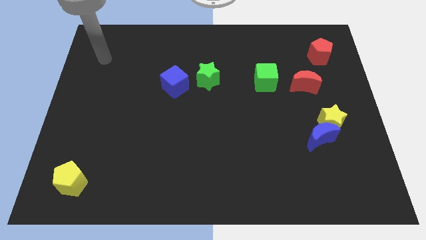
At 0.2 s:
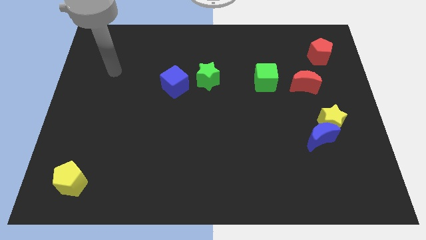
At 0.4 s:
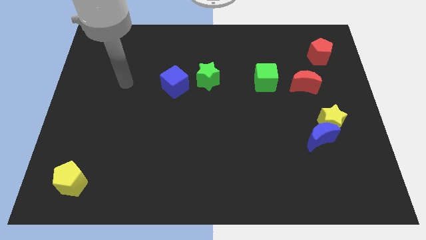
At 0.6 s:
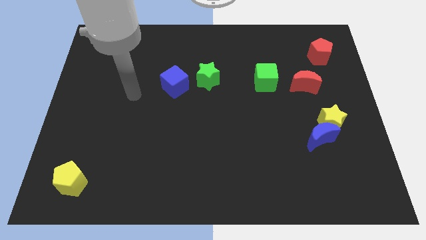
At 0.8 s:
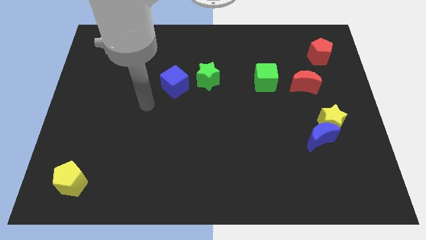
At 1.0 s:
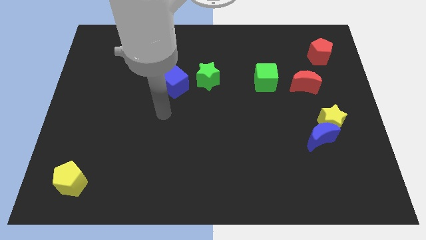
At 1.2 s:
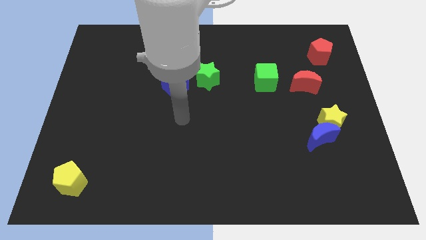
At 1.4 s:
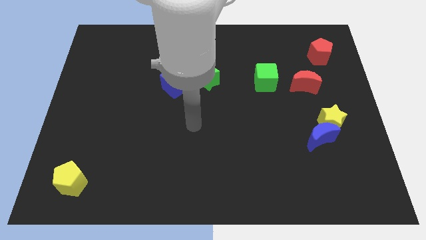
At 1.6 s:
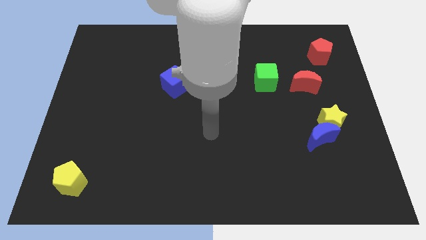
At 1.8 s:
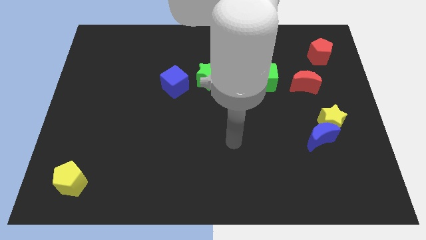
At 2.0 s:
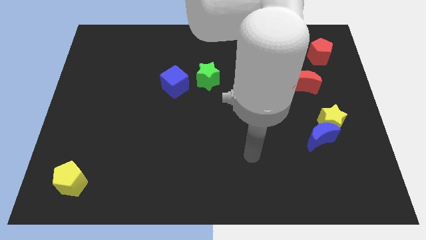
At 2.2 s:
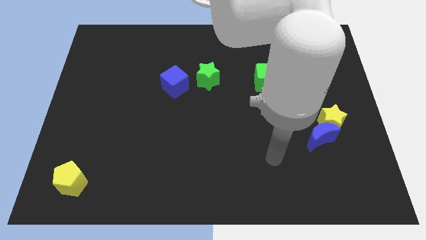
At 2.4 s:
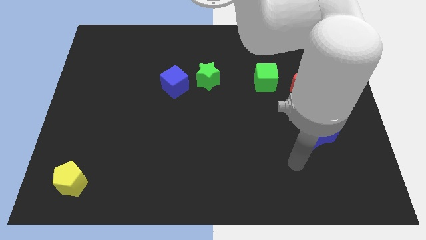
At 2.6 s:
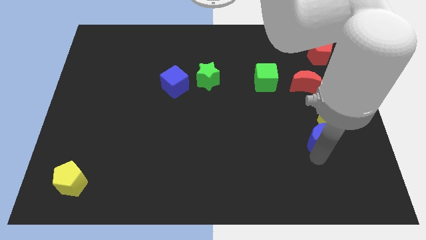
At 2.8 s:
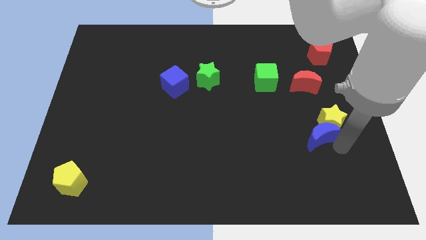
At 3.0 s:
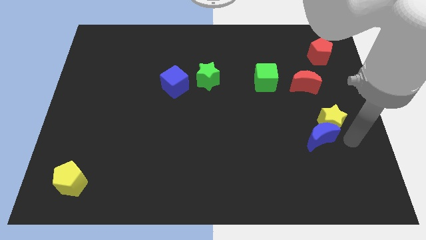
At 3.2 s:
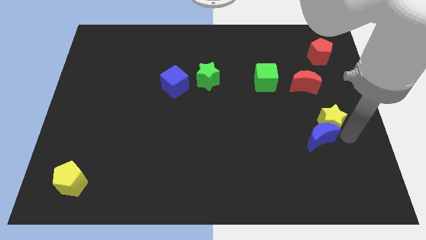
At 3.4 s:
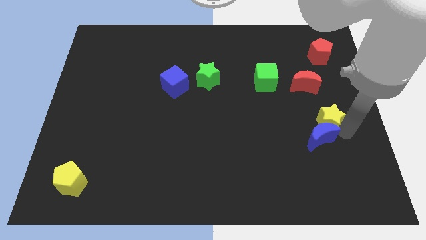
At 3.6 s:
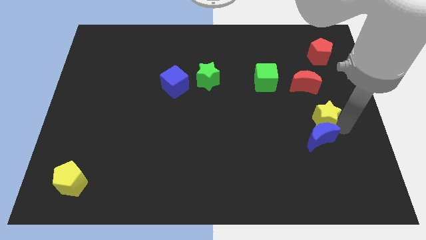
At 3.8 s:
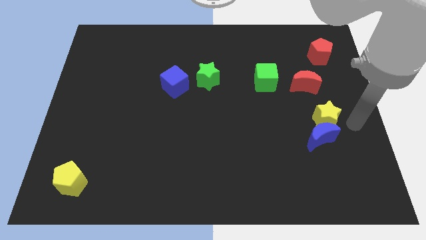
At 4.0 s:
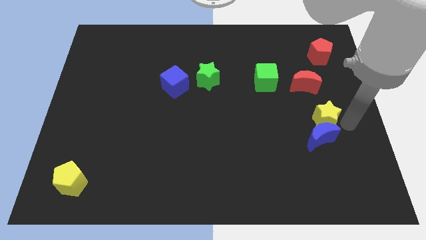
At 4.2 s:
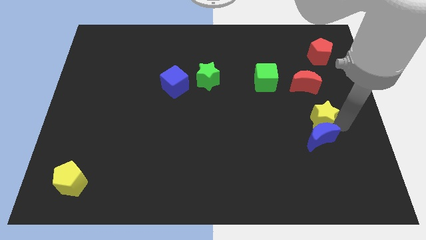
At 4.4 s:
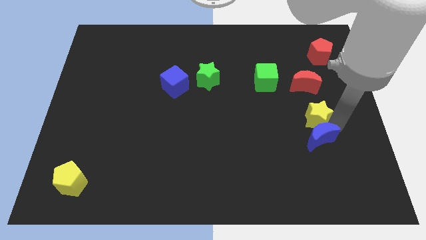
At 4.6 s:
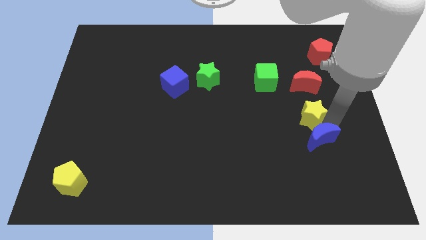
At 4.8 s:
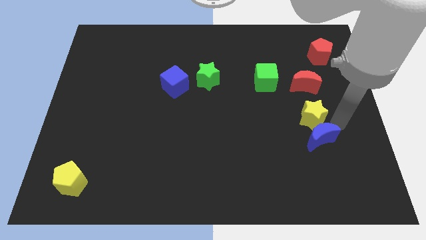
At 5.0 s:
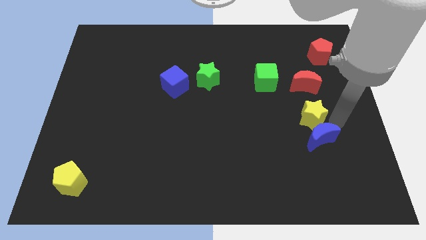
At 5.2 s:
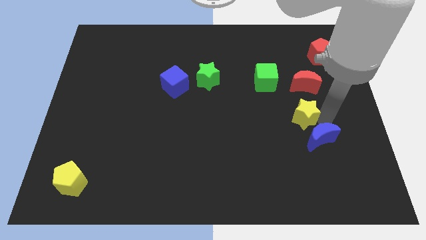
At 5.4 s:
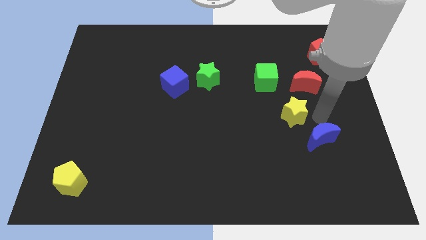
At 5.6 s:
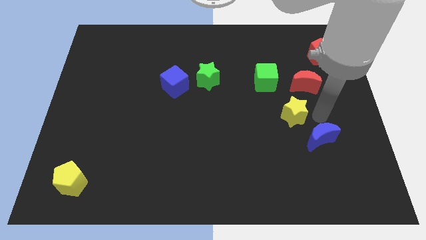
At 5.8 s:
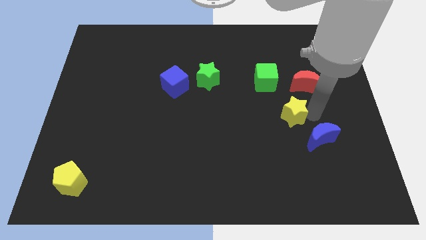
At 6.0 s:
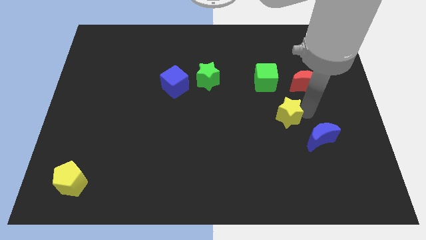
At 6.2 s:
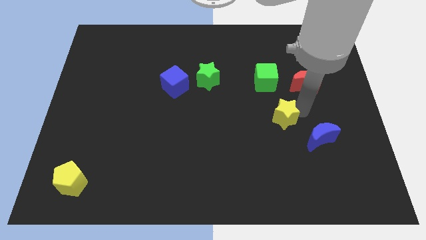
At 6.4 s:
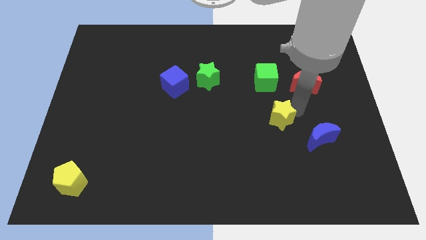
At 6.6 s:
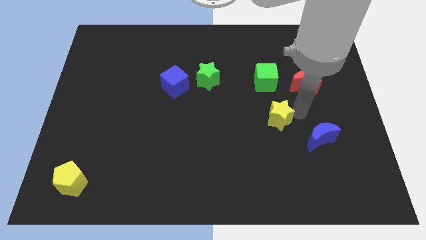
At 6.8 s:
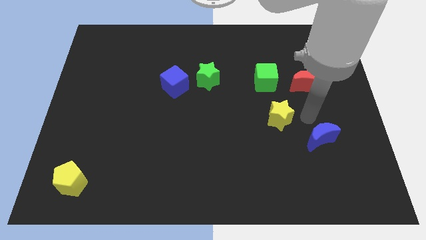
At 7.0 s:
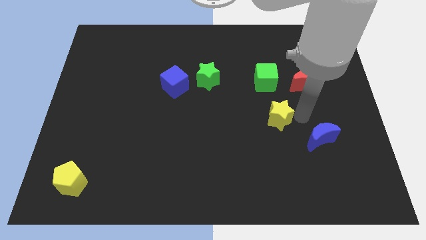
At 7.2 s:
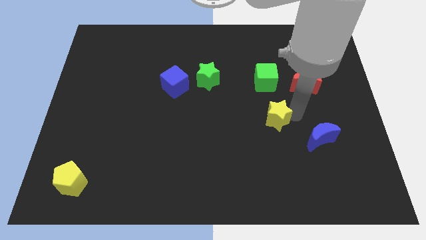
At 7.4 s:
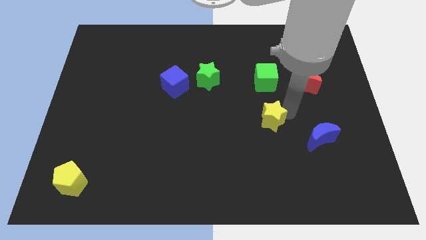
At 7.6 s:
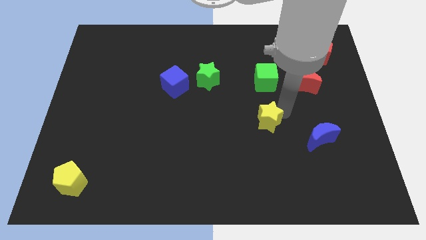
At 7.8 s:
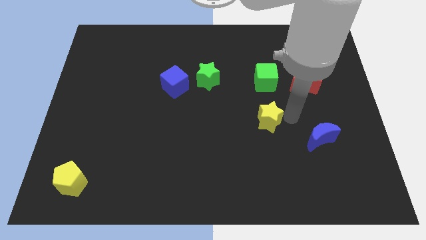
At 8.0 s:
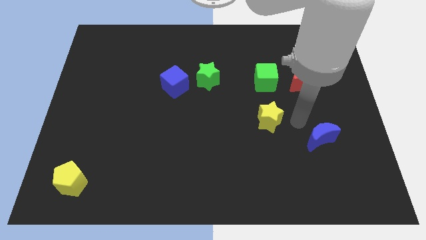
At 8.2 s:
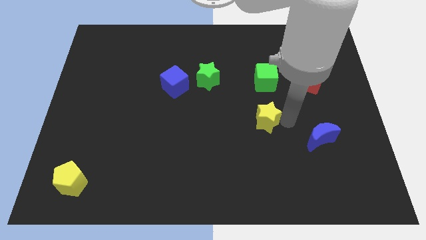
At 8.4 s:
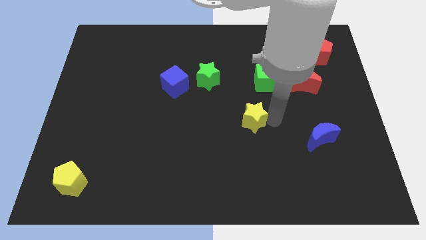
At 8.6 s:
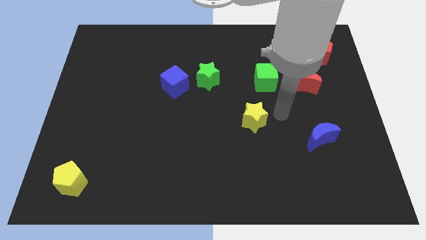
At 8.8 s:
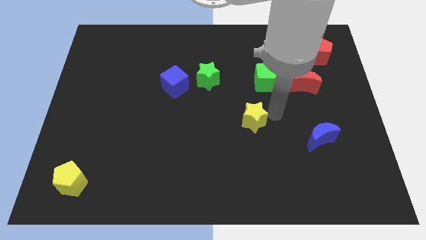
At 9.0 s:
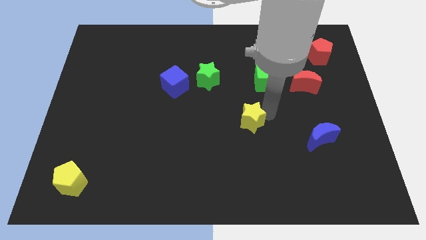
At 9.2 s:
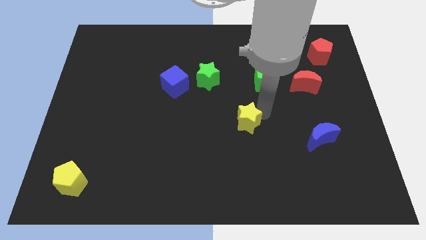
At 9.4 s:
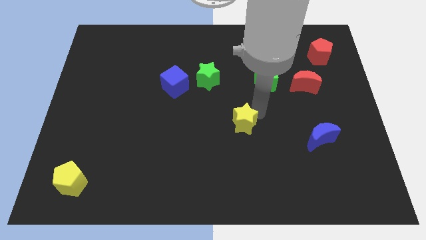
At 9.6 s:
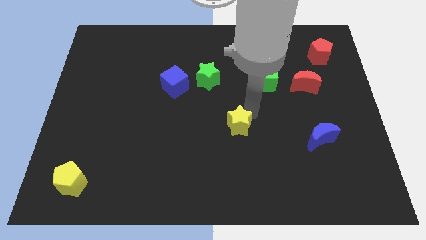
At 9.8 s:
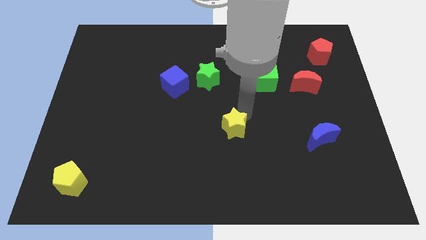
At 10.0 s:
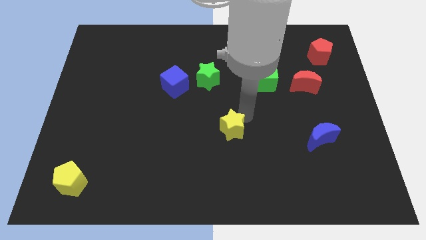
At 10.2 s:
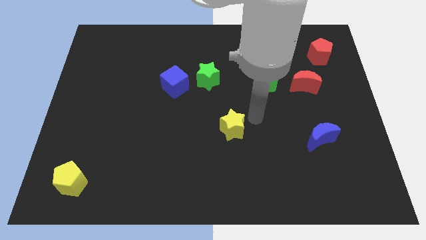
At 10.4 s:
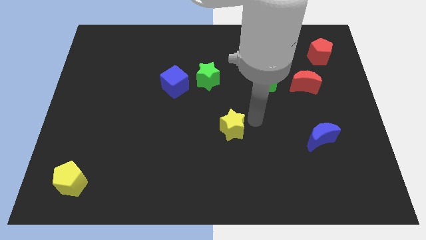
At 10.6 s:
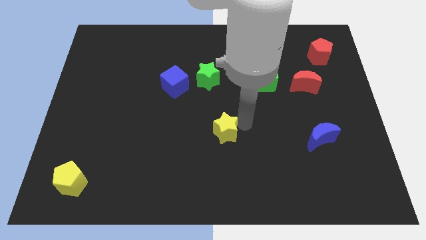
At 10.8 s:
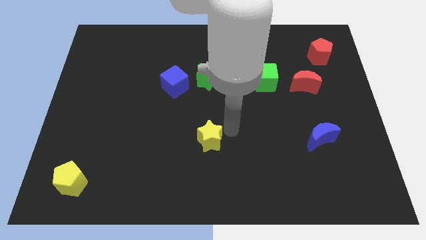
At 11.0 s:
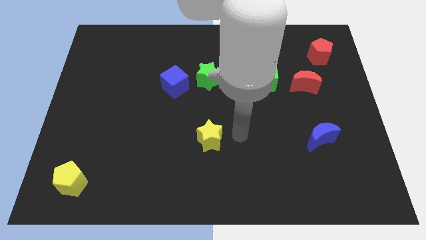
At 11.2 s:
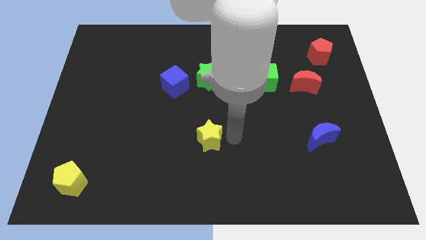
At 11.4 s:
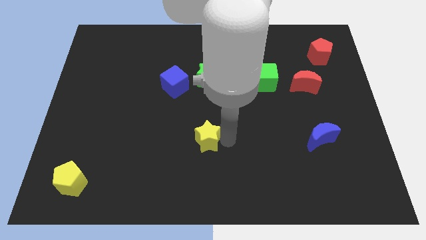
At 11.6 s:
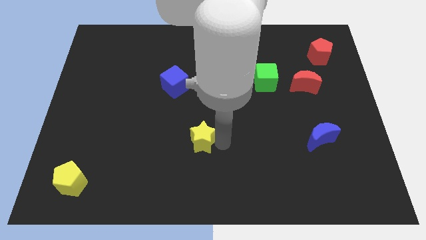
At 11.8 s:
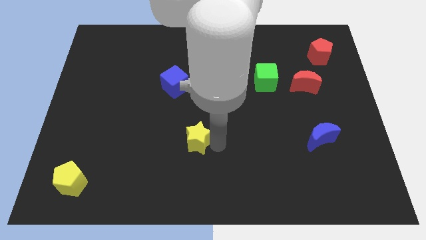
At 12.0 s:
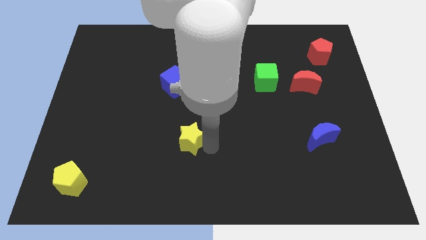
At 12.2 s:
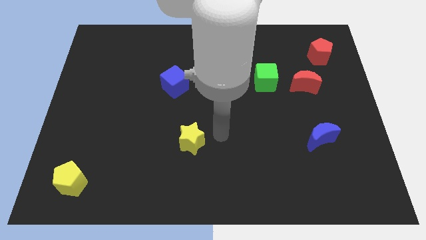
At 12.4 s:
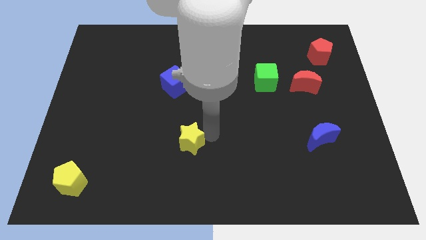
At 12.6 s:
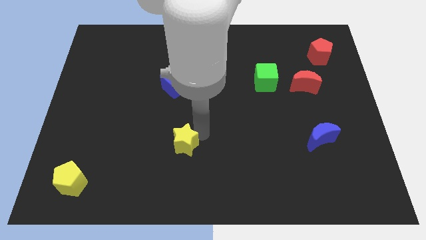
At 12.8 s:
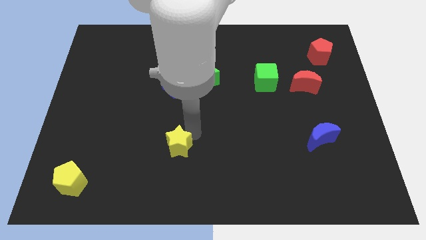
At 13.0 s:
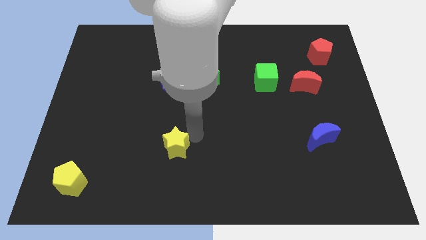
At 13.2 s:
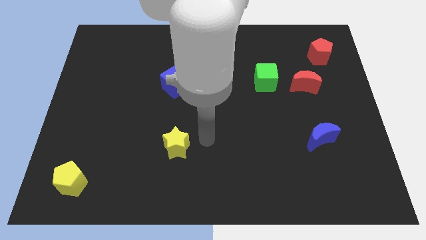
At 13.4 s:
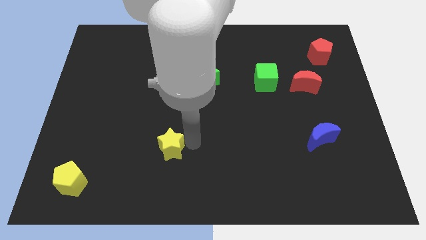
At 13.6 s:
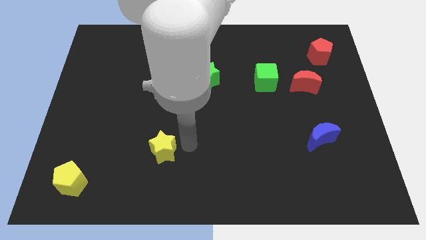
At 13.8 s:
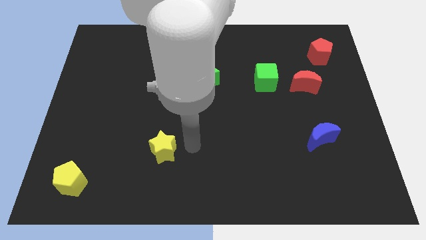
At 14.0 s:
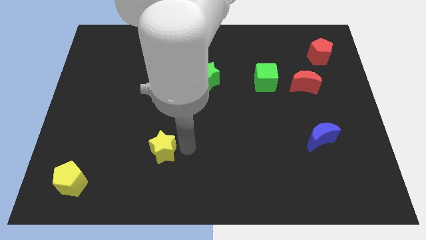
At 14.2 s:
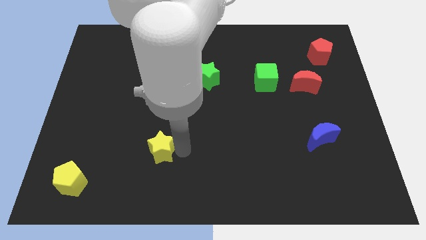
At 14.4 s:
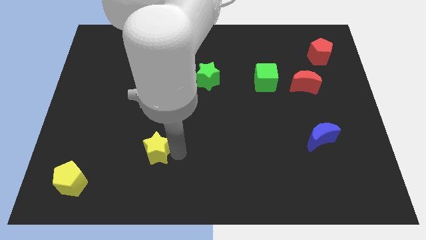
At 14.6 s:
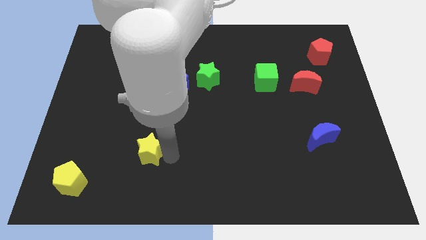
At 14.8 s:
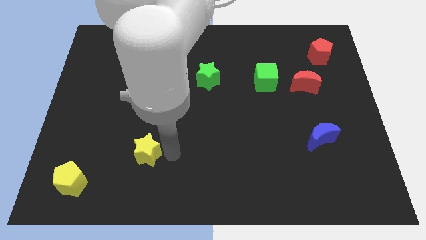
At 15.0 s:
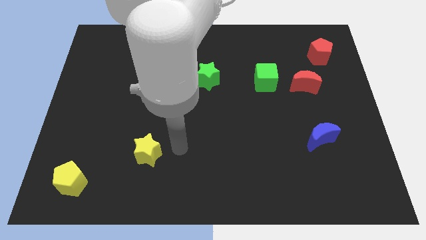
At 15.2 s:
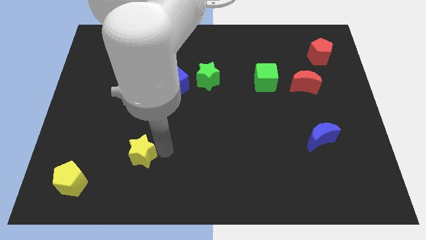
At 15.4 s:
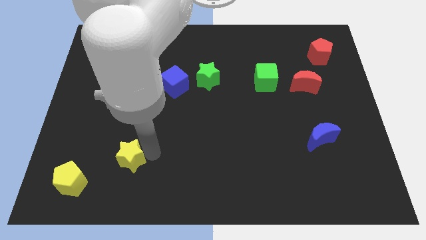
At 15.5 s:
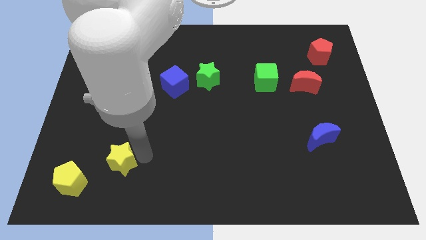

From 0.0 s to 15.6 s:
push the yellow star to the top right of the yellow pentagon
